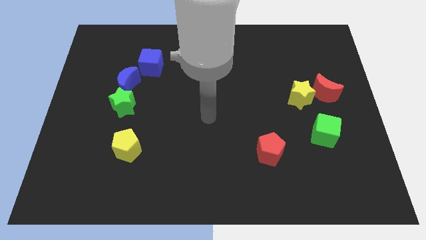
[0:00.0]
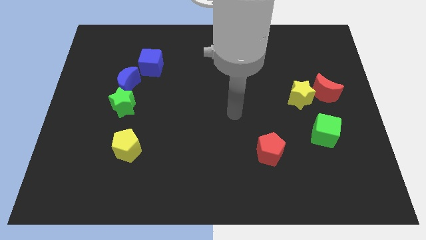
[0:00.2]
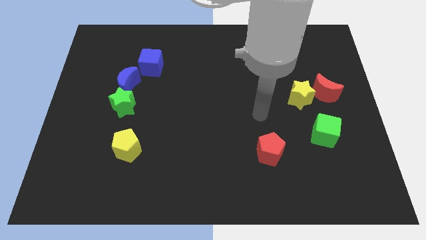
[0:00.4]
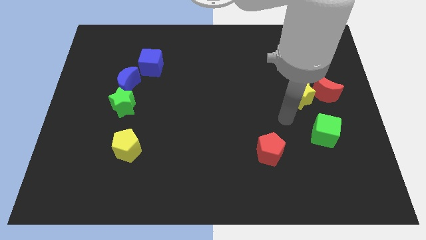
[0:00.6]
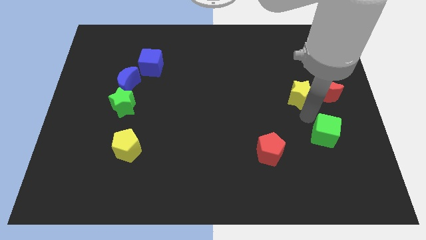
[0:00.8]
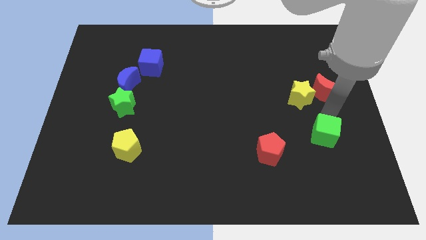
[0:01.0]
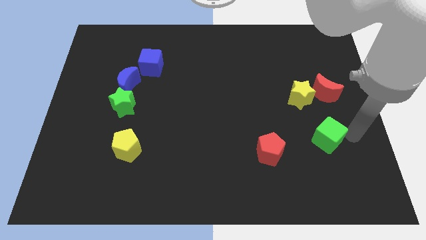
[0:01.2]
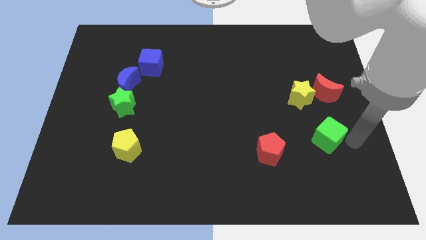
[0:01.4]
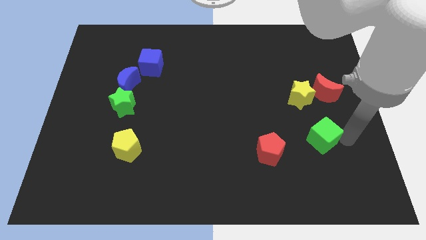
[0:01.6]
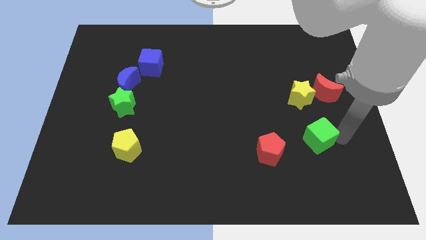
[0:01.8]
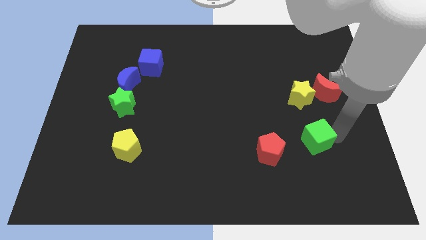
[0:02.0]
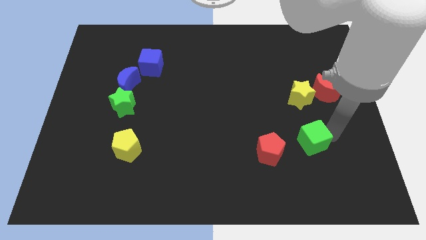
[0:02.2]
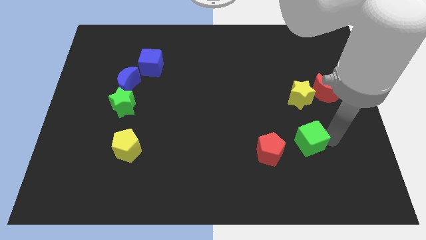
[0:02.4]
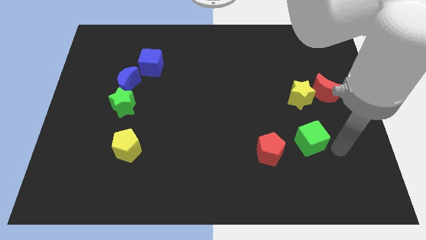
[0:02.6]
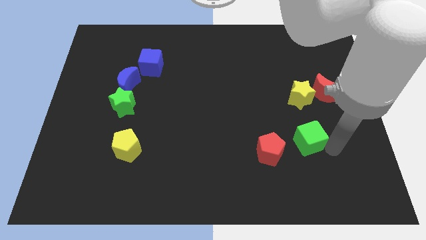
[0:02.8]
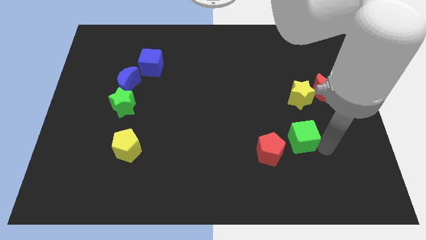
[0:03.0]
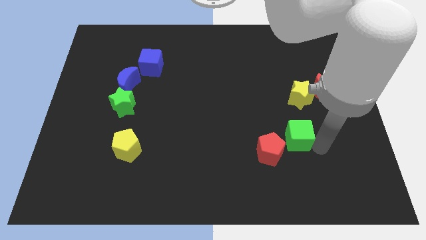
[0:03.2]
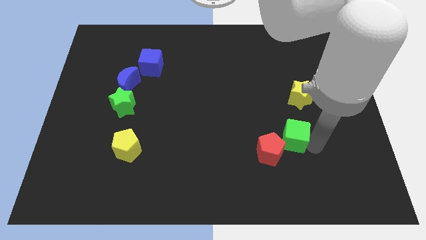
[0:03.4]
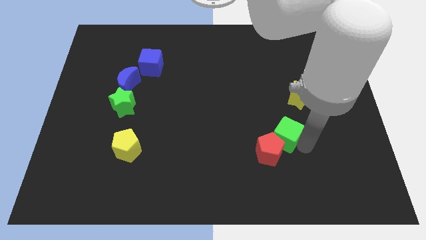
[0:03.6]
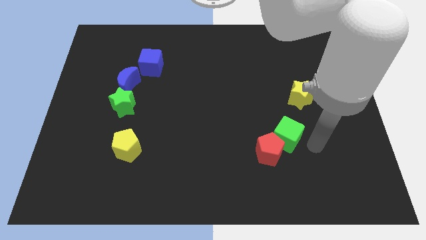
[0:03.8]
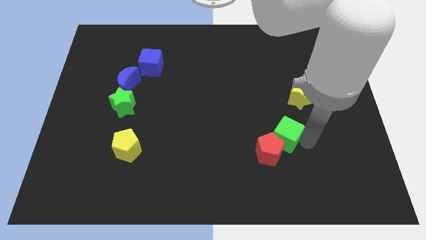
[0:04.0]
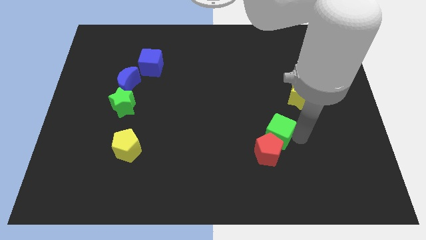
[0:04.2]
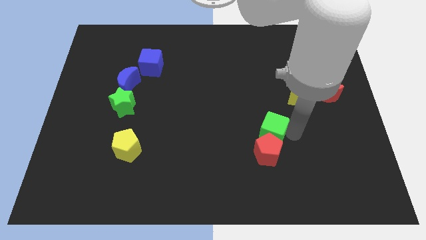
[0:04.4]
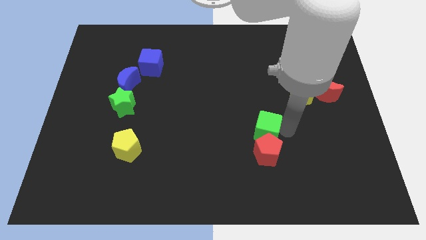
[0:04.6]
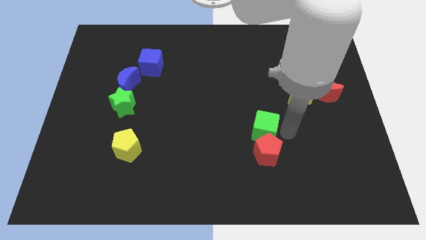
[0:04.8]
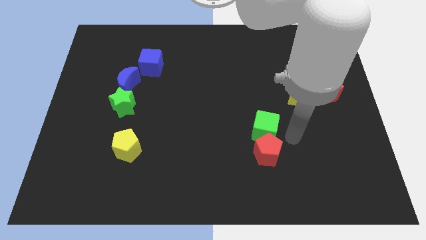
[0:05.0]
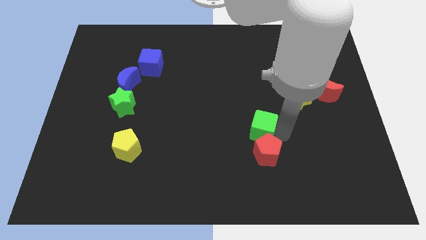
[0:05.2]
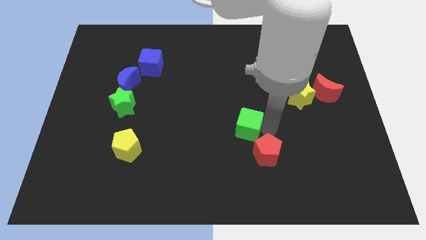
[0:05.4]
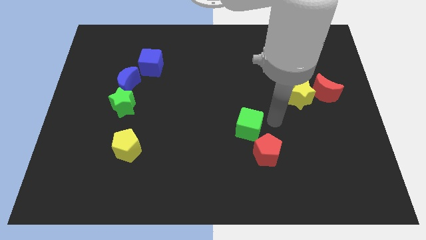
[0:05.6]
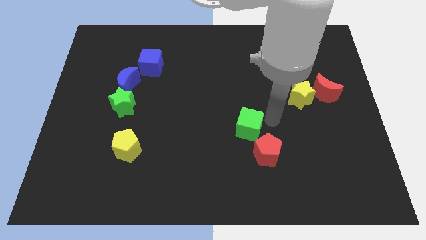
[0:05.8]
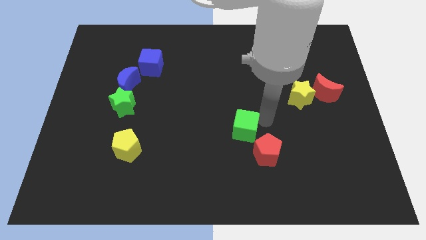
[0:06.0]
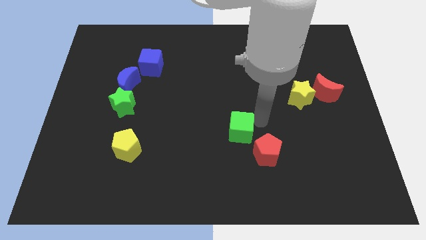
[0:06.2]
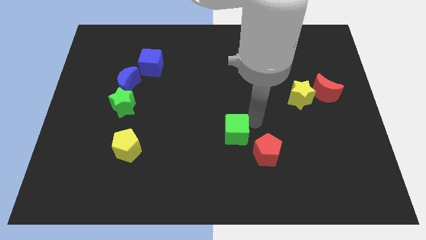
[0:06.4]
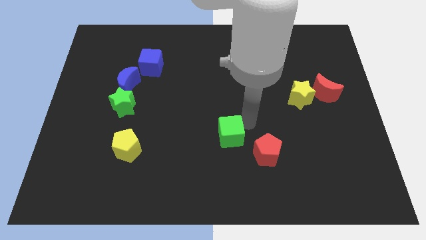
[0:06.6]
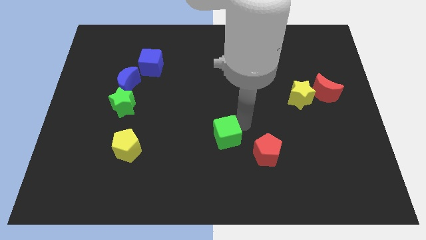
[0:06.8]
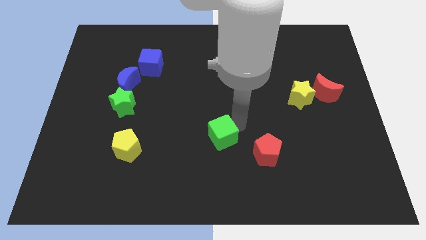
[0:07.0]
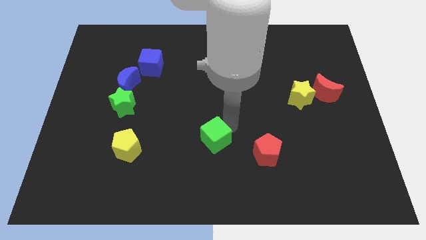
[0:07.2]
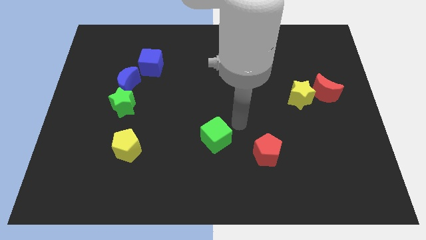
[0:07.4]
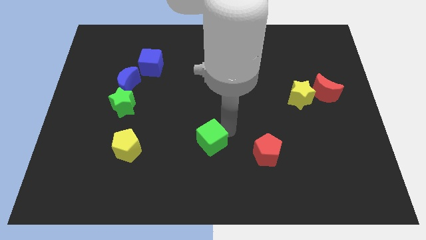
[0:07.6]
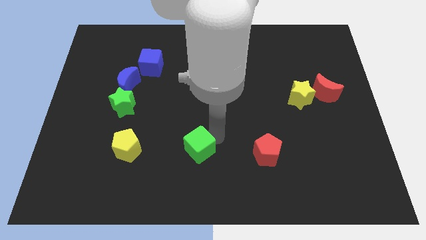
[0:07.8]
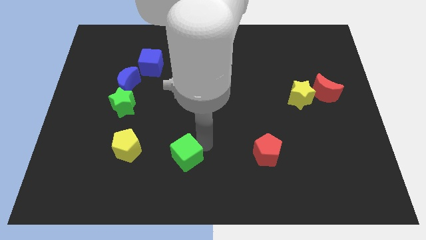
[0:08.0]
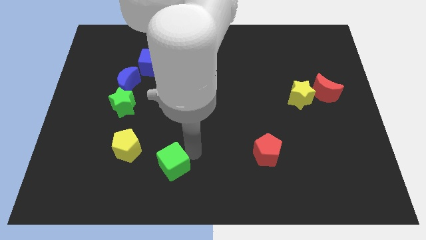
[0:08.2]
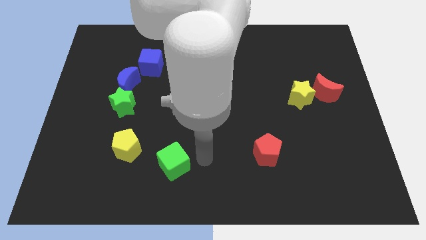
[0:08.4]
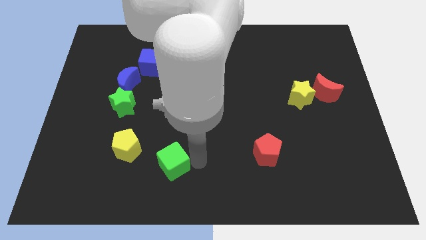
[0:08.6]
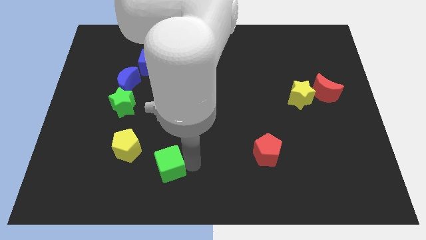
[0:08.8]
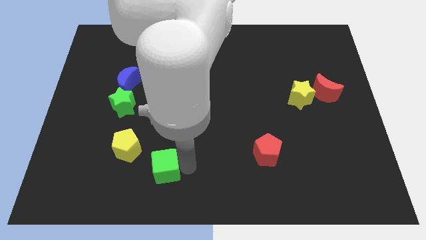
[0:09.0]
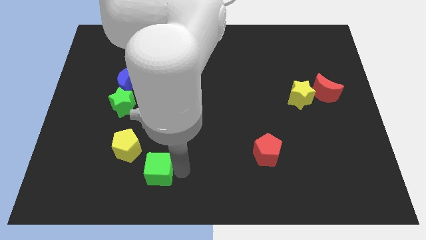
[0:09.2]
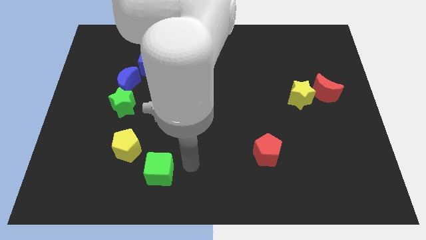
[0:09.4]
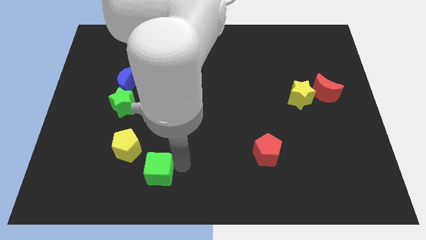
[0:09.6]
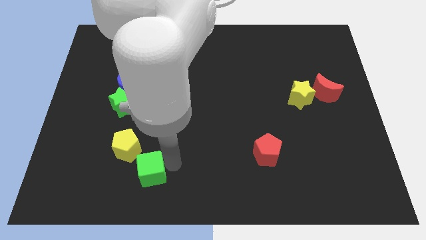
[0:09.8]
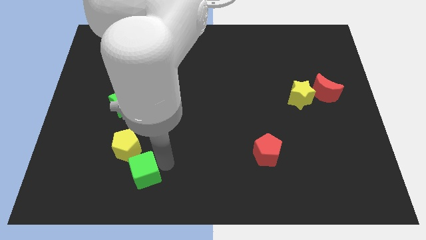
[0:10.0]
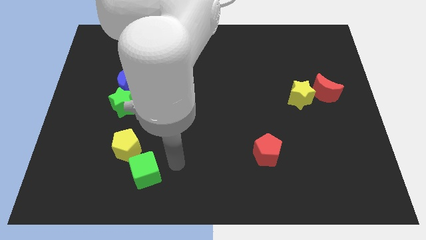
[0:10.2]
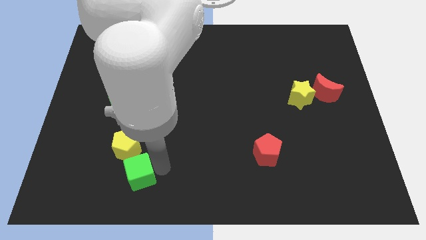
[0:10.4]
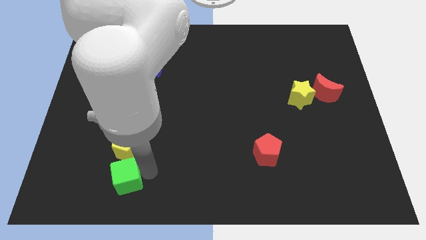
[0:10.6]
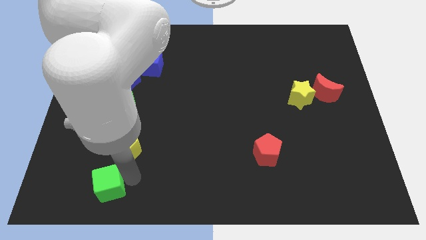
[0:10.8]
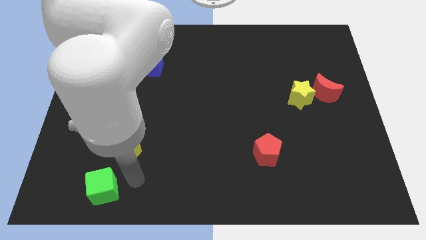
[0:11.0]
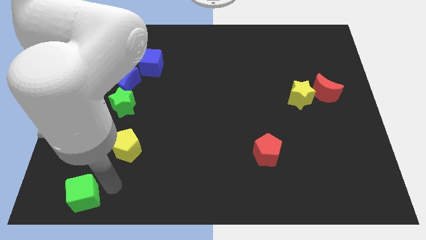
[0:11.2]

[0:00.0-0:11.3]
slide the green cube to the bottom left
